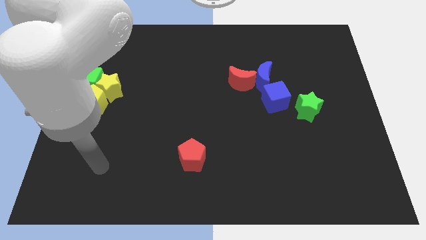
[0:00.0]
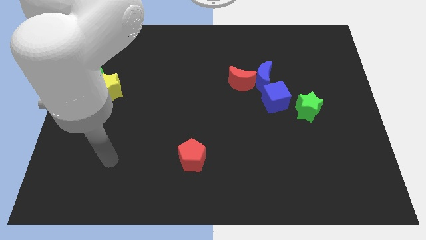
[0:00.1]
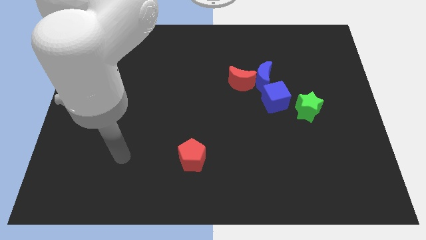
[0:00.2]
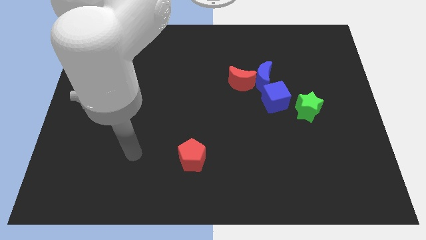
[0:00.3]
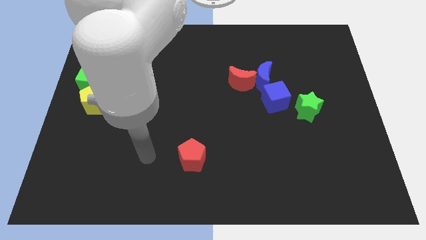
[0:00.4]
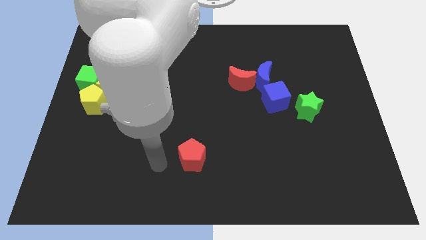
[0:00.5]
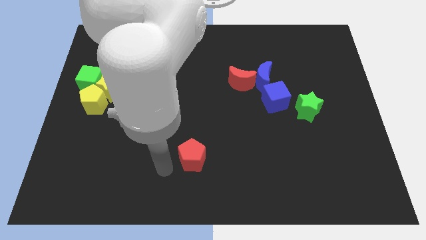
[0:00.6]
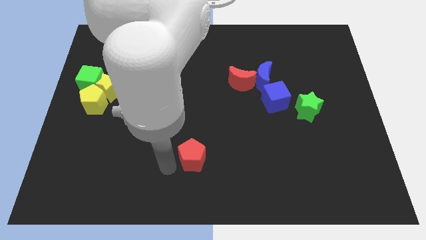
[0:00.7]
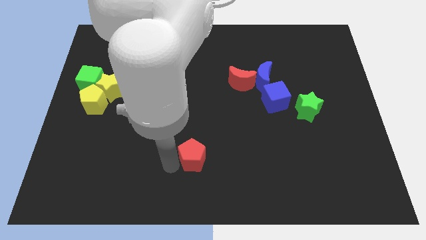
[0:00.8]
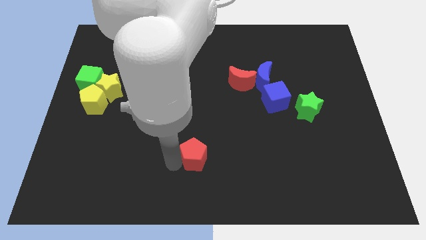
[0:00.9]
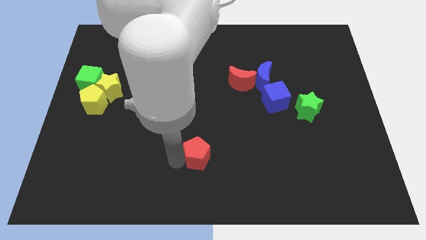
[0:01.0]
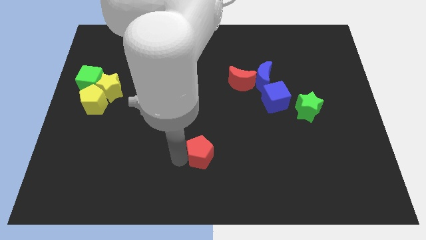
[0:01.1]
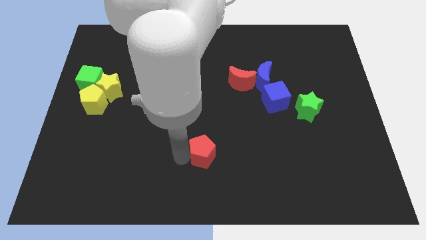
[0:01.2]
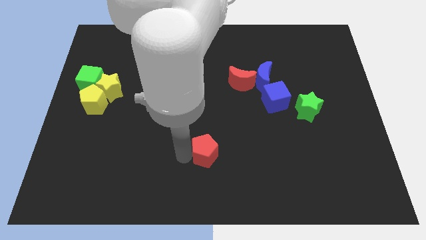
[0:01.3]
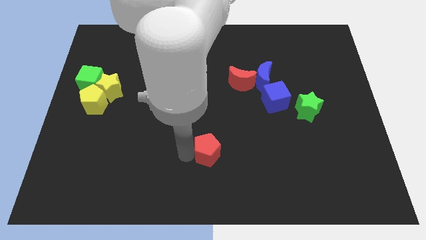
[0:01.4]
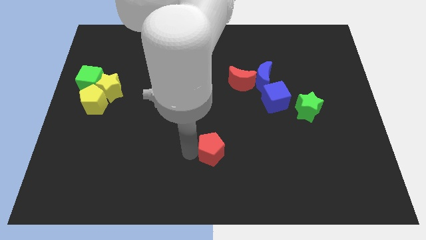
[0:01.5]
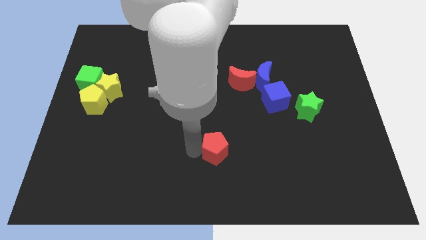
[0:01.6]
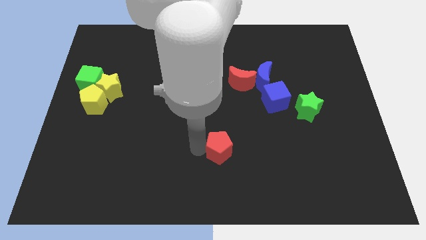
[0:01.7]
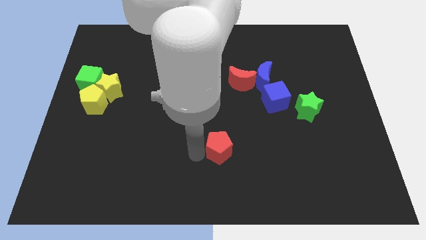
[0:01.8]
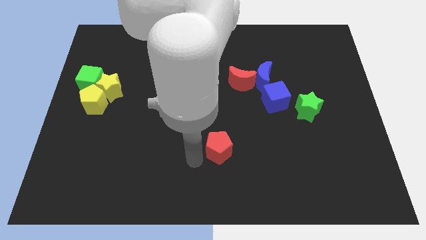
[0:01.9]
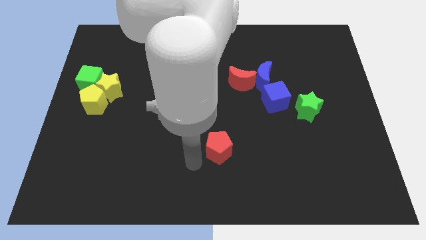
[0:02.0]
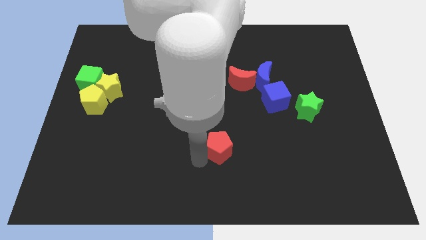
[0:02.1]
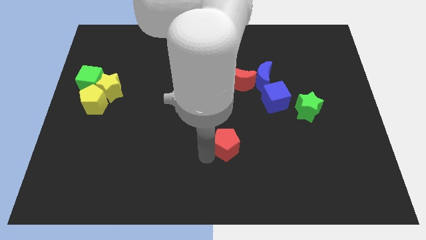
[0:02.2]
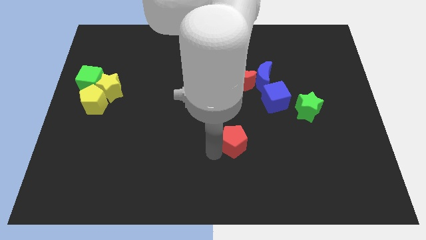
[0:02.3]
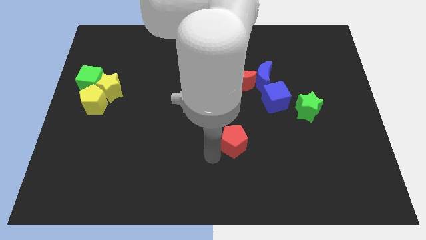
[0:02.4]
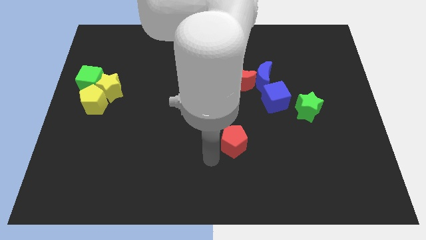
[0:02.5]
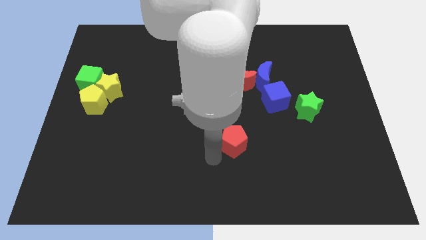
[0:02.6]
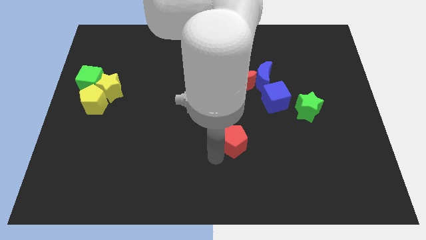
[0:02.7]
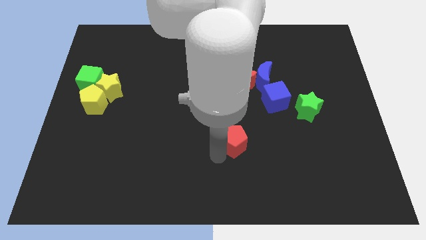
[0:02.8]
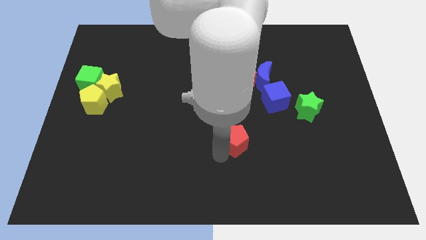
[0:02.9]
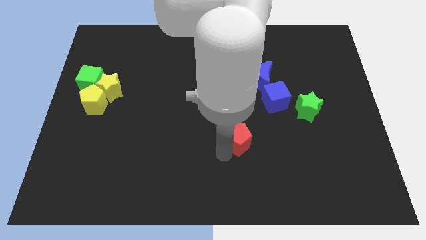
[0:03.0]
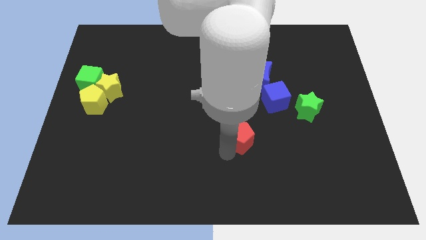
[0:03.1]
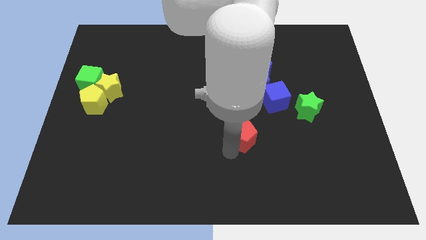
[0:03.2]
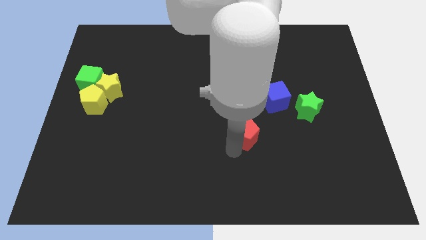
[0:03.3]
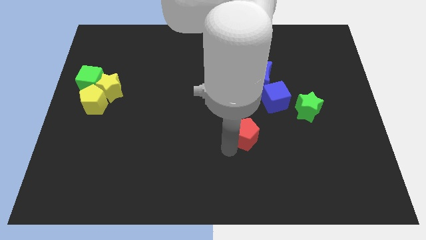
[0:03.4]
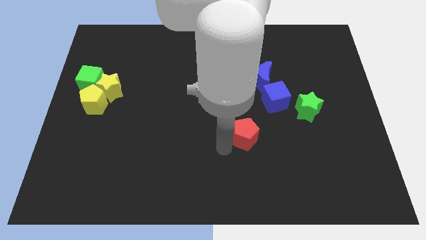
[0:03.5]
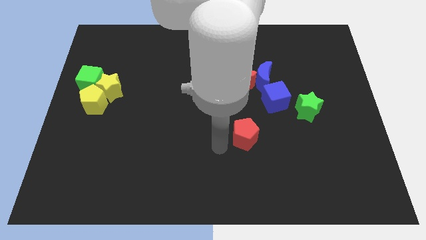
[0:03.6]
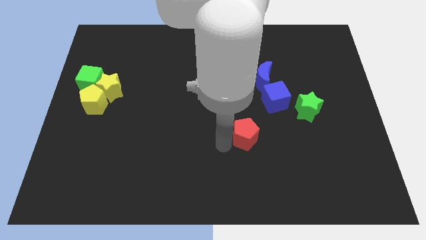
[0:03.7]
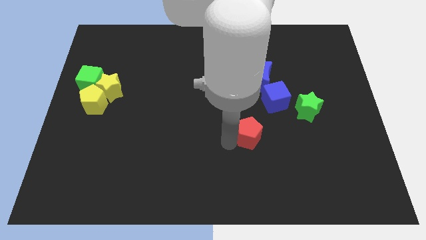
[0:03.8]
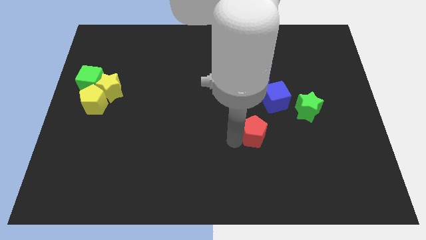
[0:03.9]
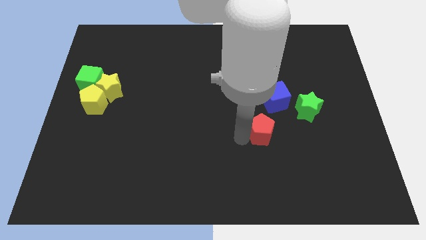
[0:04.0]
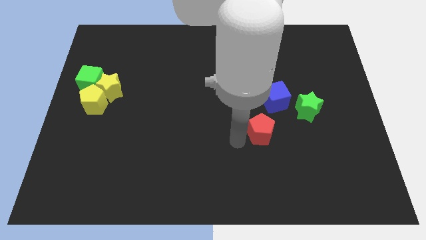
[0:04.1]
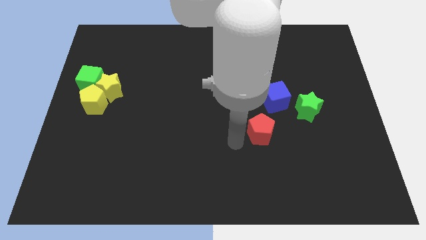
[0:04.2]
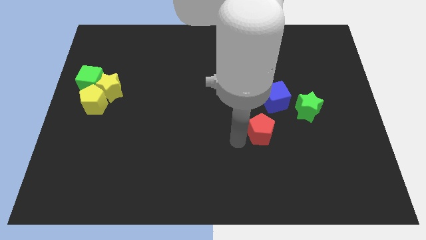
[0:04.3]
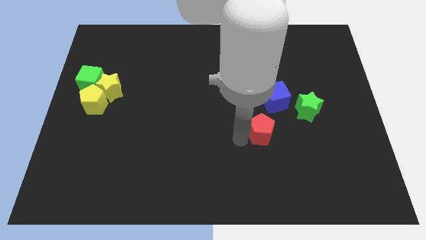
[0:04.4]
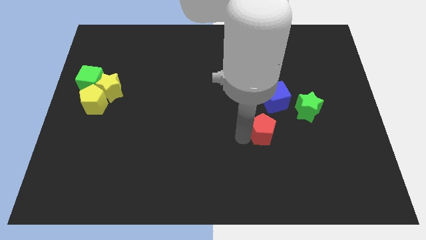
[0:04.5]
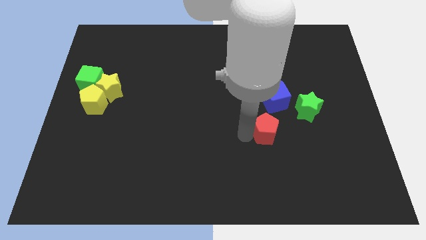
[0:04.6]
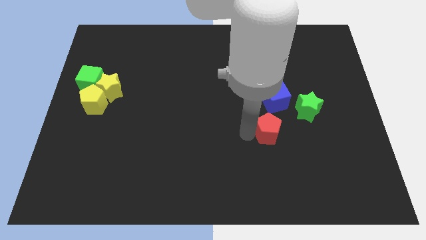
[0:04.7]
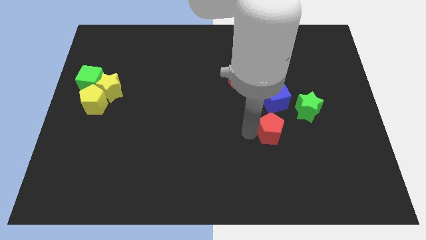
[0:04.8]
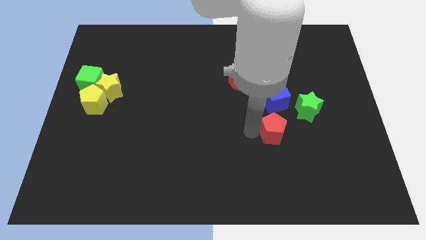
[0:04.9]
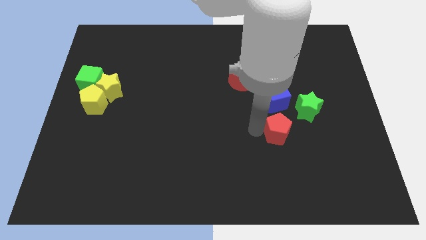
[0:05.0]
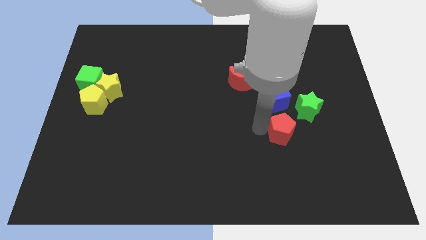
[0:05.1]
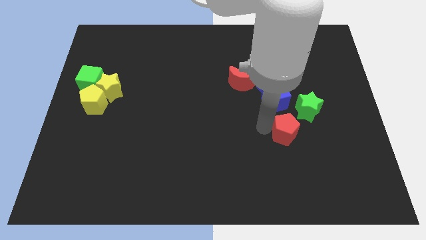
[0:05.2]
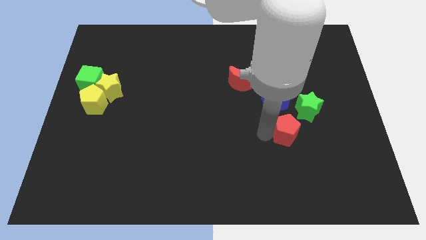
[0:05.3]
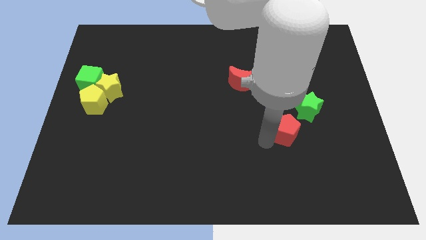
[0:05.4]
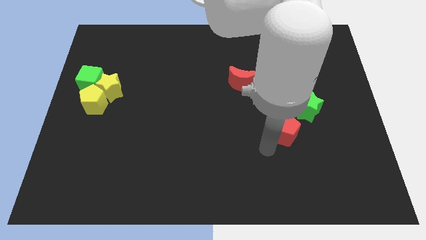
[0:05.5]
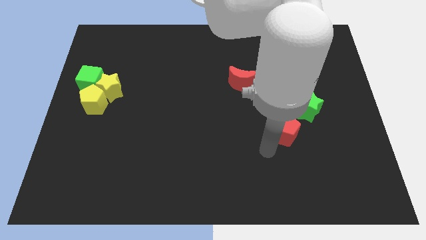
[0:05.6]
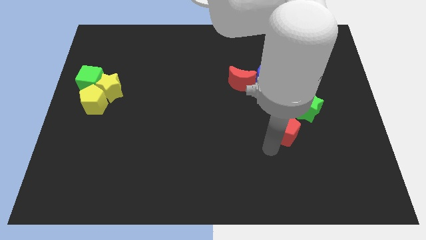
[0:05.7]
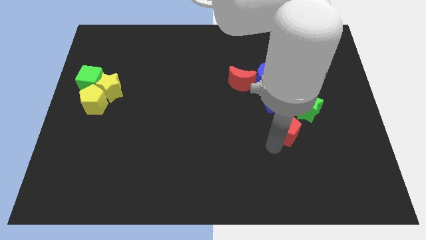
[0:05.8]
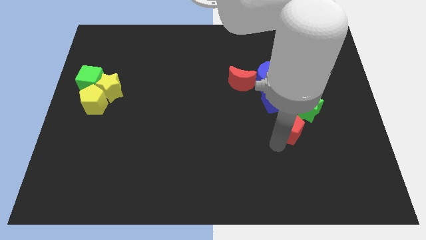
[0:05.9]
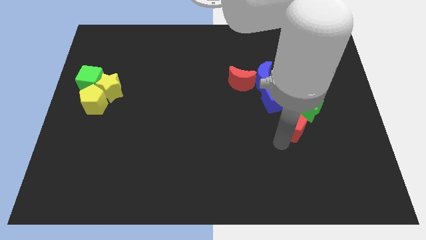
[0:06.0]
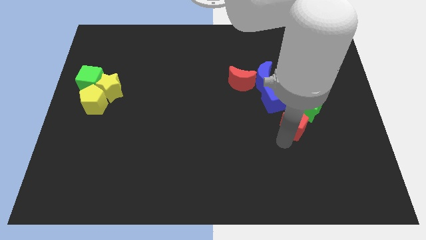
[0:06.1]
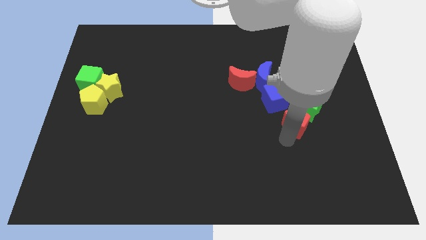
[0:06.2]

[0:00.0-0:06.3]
put the red pentagon close to the green star

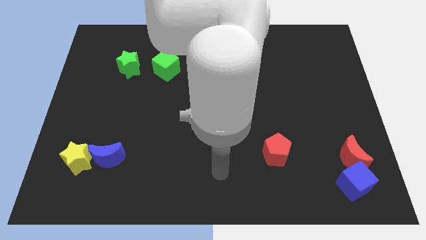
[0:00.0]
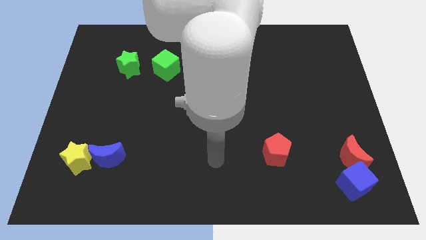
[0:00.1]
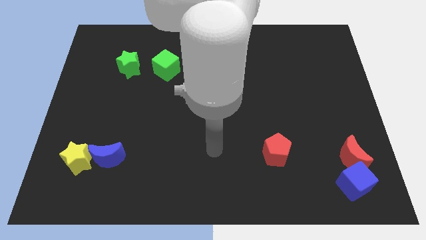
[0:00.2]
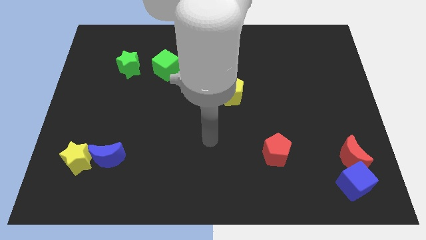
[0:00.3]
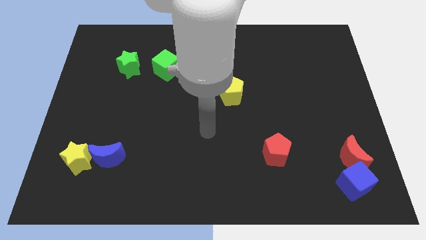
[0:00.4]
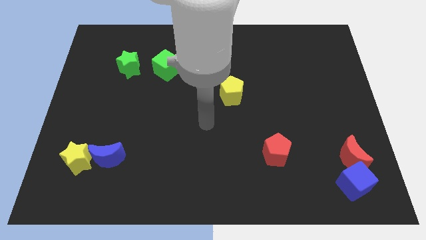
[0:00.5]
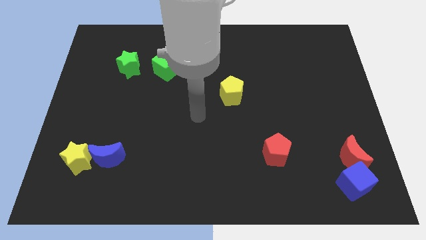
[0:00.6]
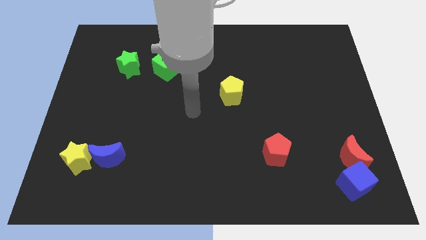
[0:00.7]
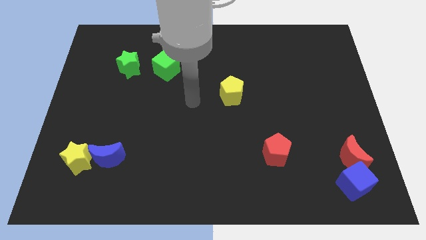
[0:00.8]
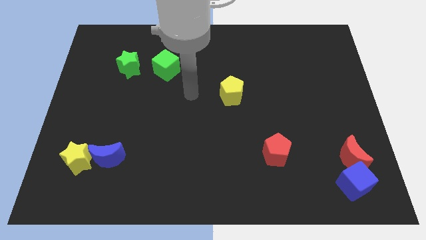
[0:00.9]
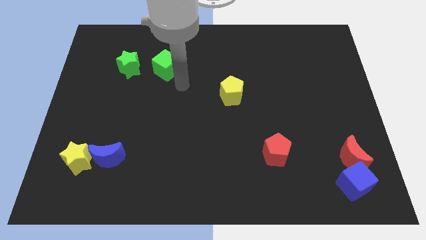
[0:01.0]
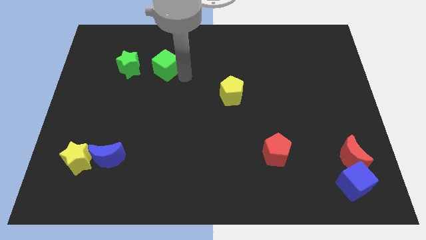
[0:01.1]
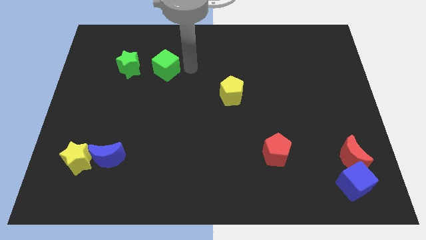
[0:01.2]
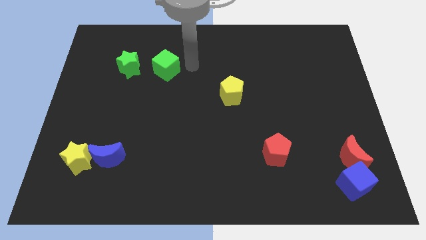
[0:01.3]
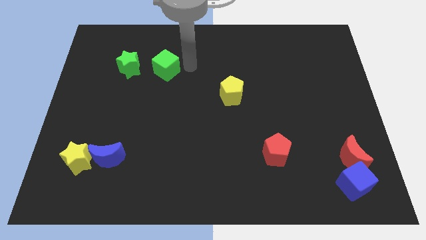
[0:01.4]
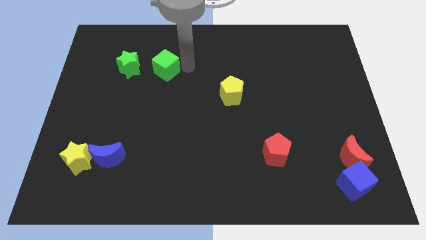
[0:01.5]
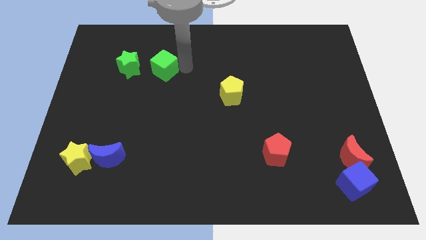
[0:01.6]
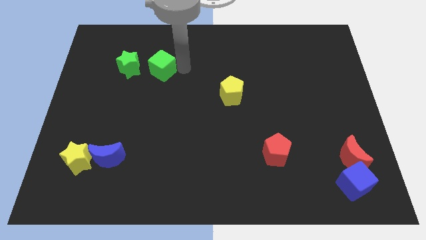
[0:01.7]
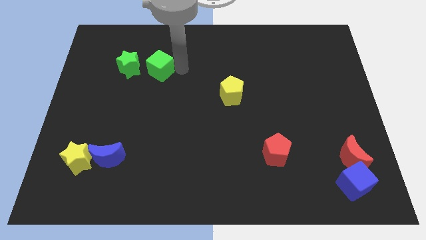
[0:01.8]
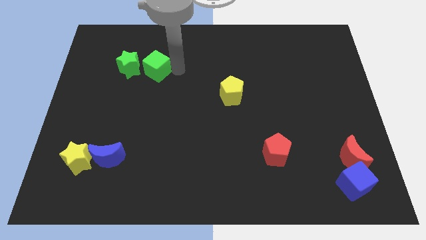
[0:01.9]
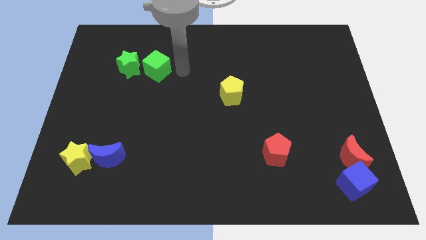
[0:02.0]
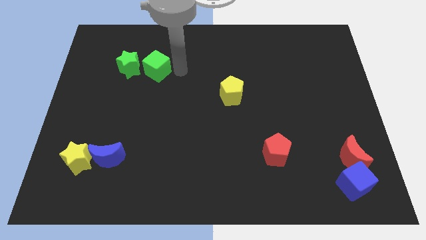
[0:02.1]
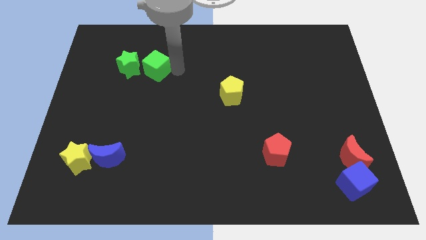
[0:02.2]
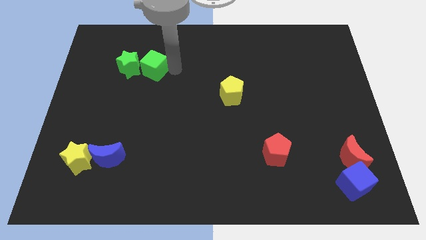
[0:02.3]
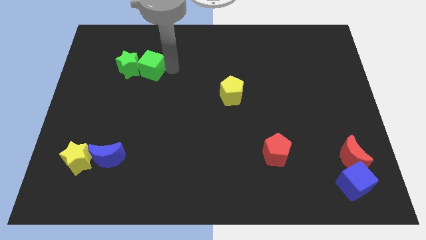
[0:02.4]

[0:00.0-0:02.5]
move the green cube next to the green star
